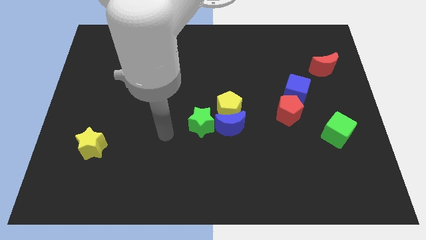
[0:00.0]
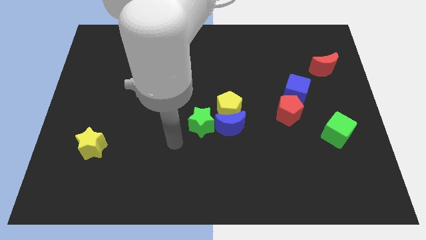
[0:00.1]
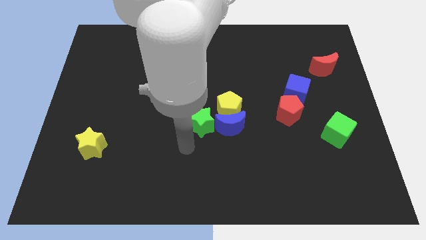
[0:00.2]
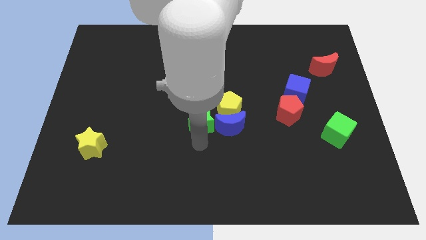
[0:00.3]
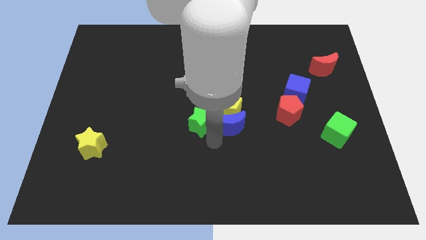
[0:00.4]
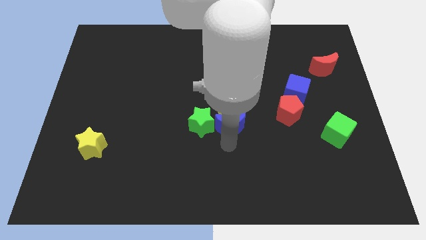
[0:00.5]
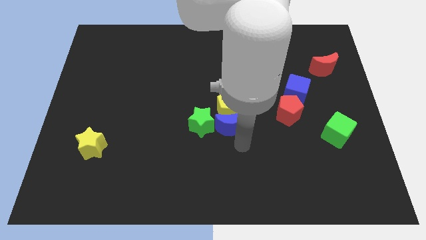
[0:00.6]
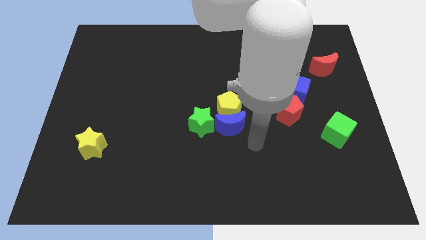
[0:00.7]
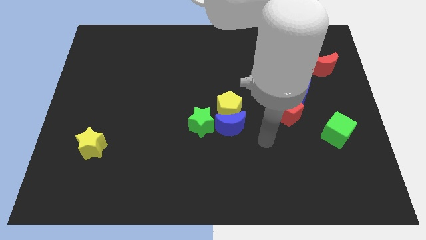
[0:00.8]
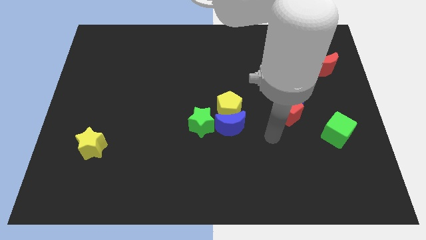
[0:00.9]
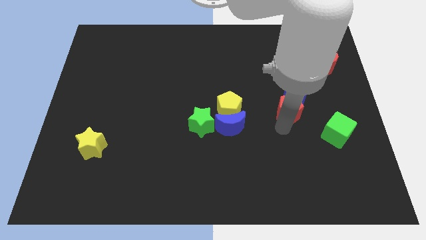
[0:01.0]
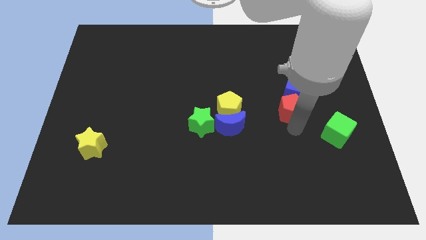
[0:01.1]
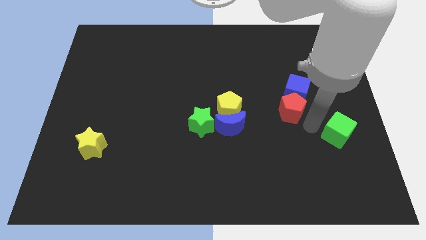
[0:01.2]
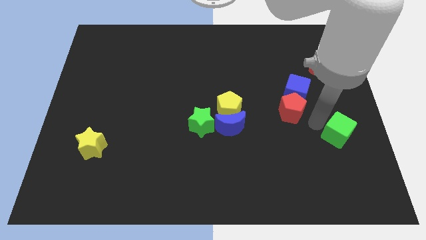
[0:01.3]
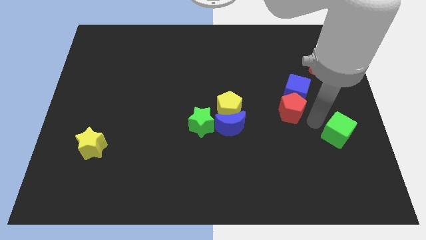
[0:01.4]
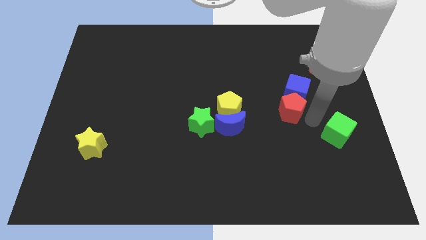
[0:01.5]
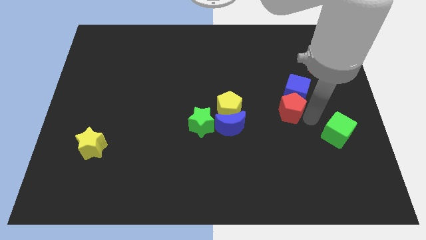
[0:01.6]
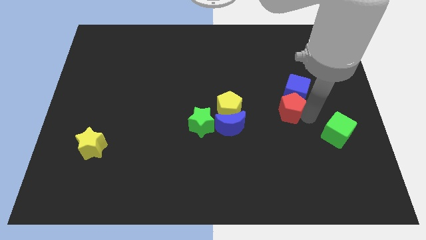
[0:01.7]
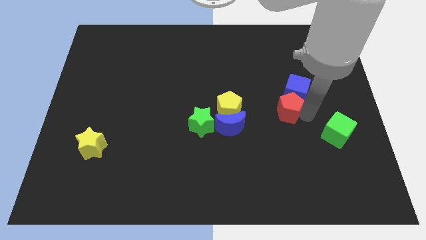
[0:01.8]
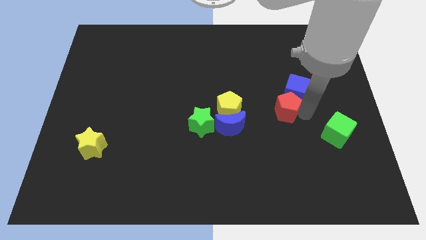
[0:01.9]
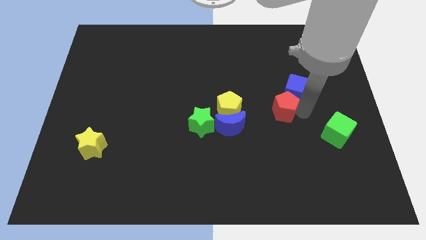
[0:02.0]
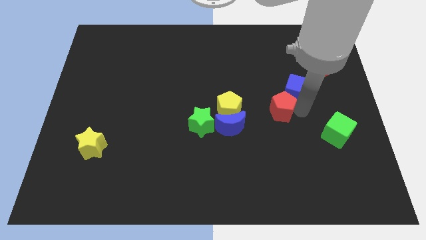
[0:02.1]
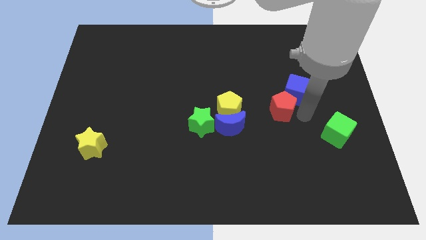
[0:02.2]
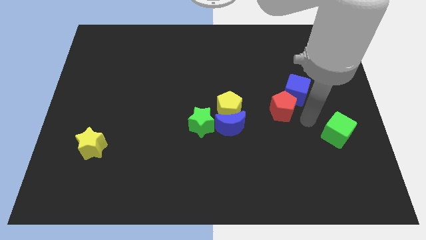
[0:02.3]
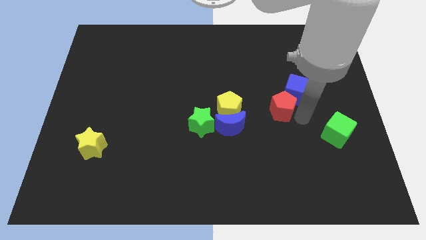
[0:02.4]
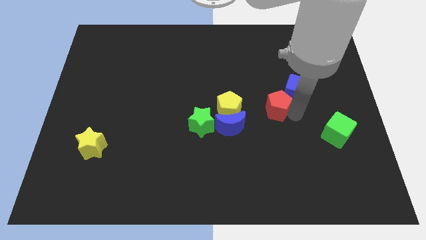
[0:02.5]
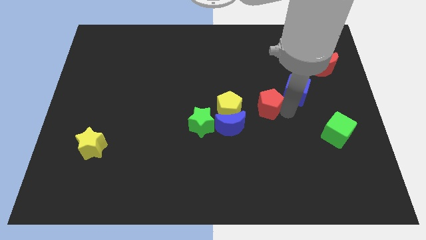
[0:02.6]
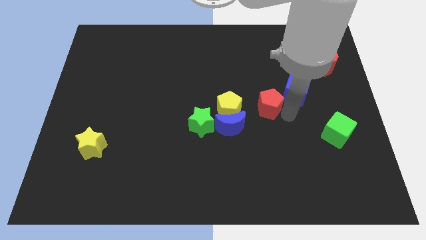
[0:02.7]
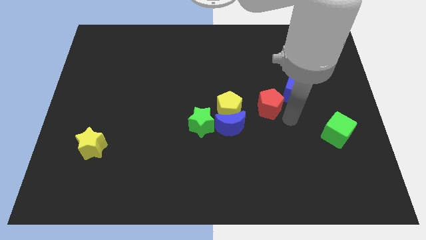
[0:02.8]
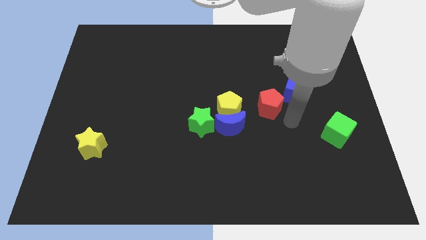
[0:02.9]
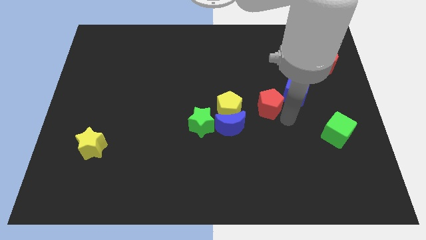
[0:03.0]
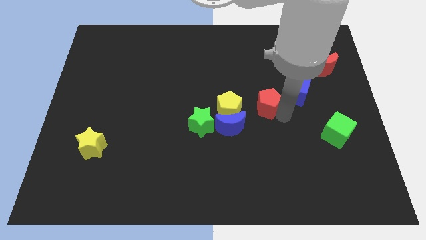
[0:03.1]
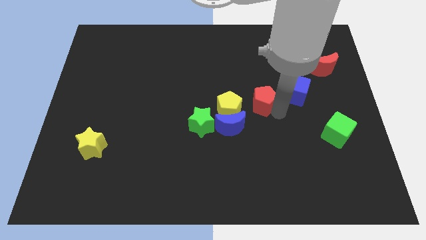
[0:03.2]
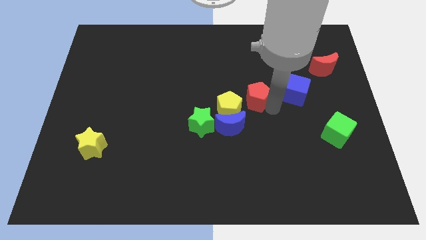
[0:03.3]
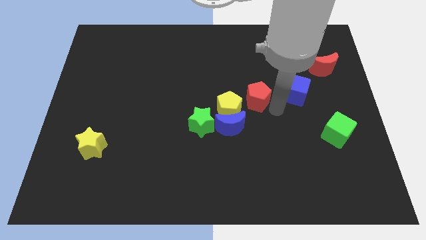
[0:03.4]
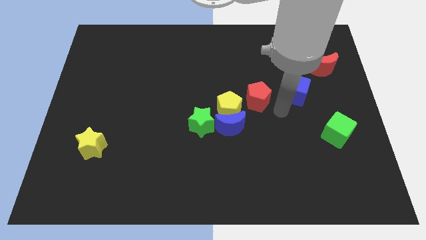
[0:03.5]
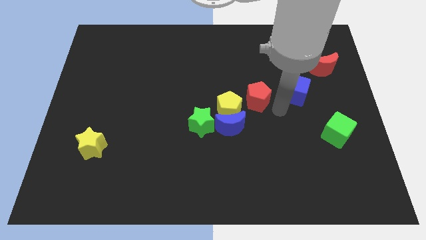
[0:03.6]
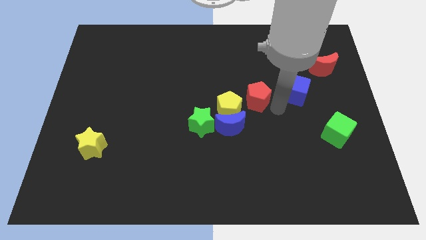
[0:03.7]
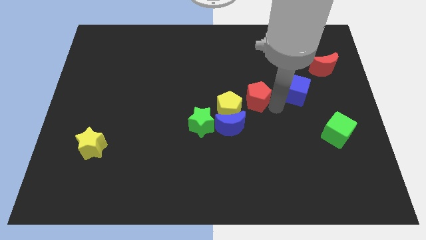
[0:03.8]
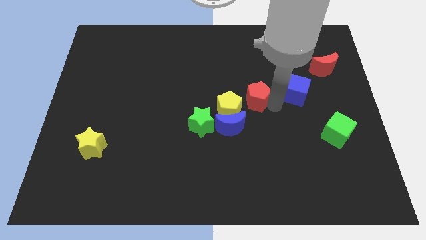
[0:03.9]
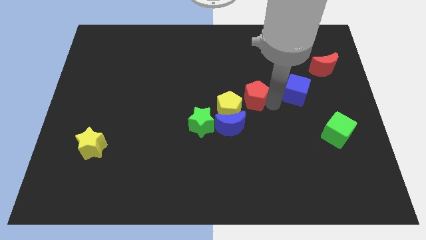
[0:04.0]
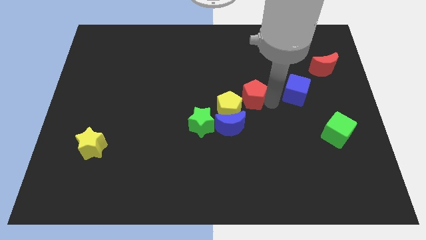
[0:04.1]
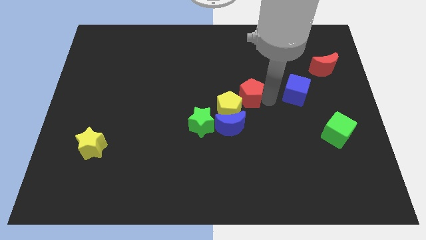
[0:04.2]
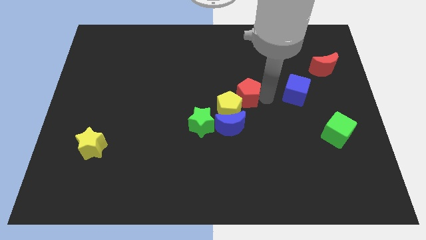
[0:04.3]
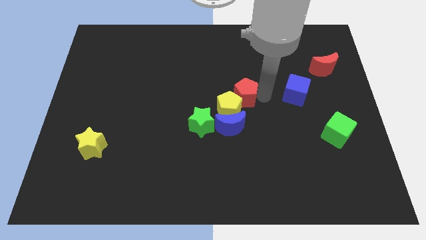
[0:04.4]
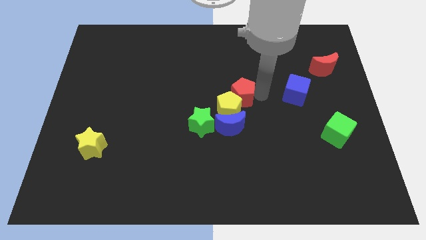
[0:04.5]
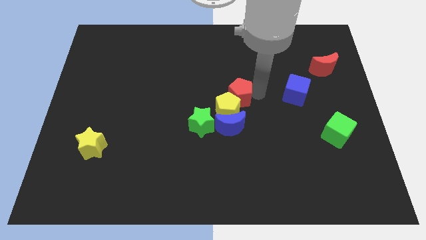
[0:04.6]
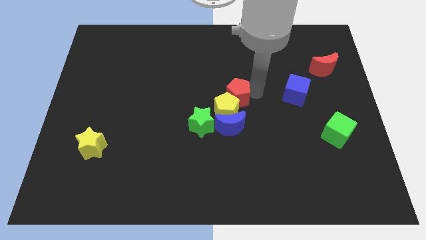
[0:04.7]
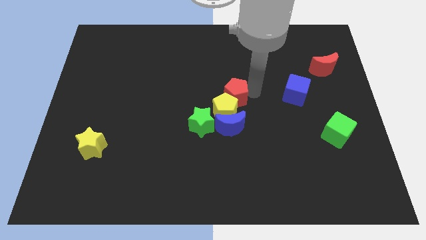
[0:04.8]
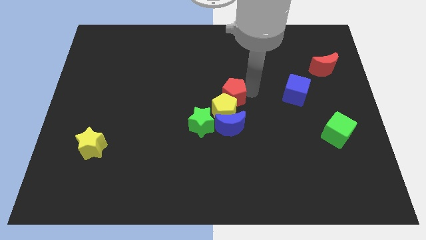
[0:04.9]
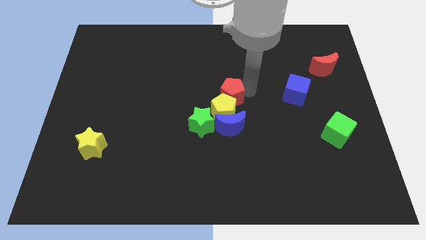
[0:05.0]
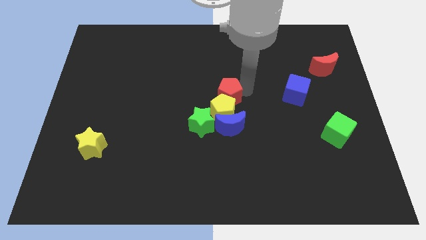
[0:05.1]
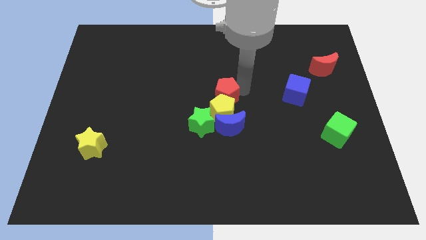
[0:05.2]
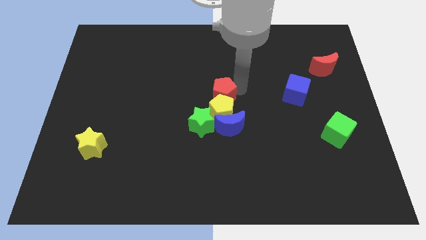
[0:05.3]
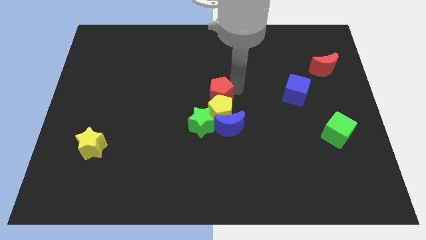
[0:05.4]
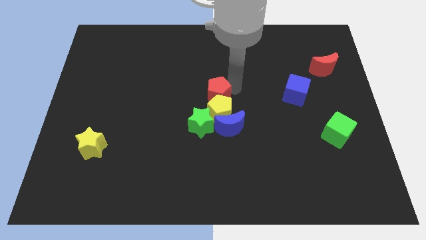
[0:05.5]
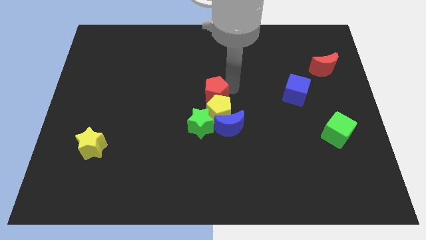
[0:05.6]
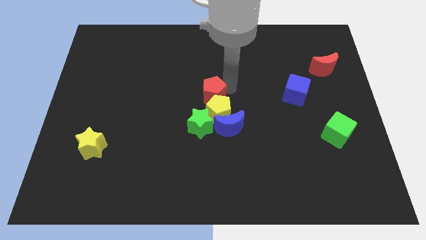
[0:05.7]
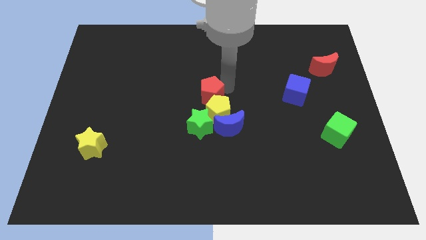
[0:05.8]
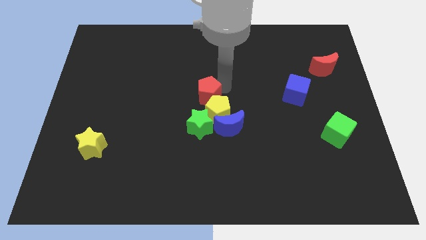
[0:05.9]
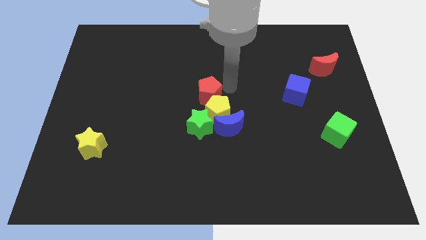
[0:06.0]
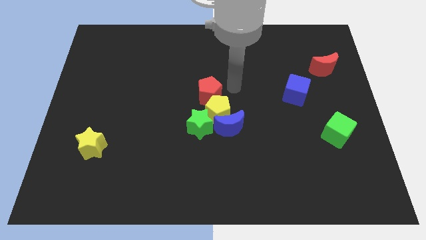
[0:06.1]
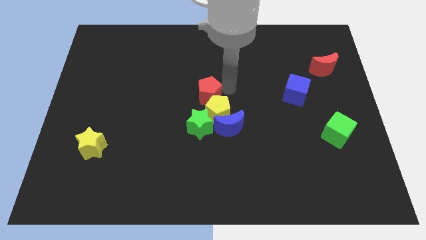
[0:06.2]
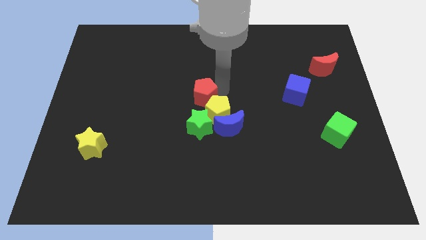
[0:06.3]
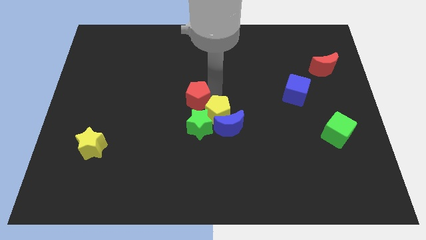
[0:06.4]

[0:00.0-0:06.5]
slide the red pentagon left

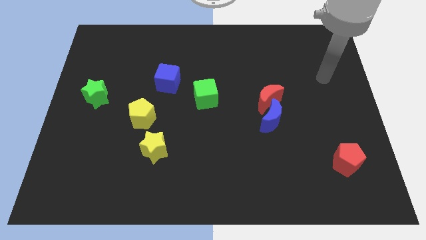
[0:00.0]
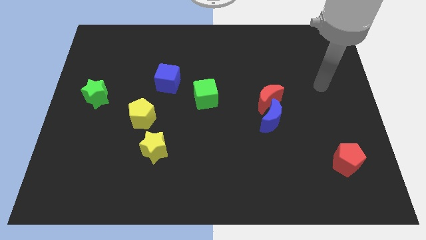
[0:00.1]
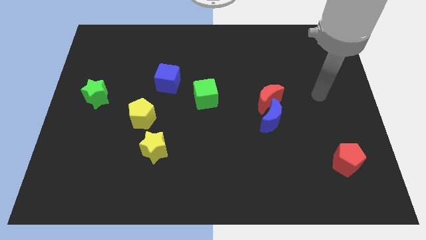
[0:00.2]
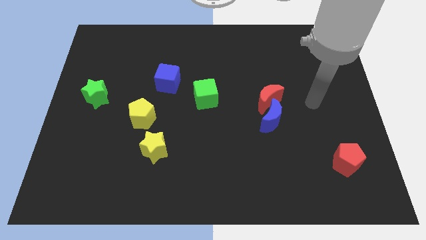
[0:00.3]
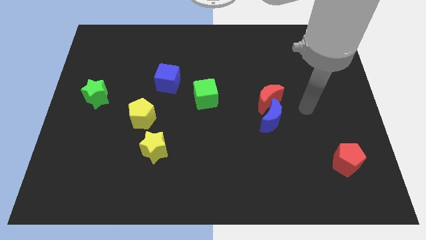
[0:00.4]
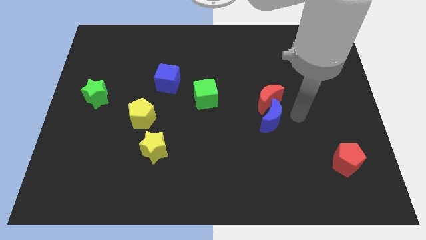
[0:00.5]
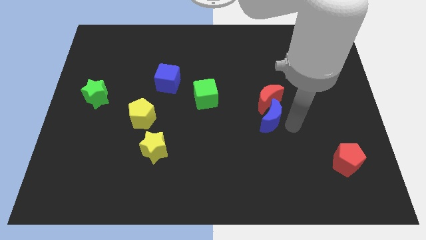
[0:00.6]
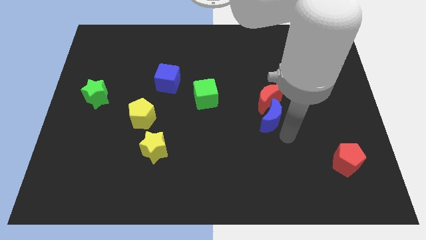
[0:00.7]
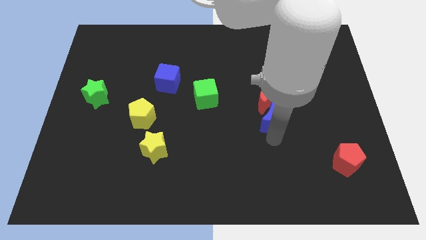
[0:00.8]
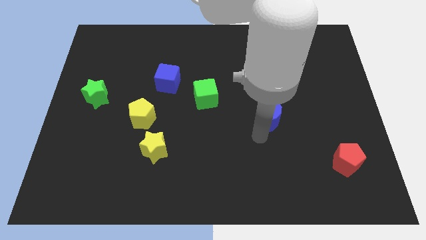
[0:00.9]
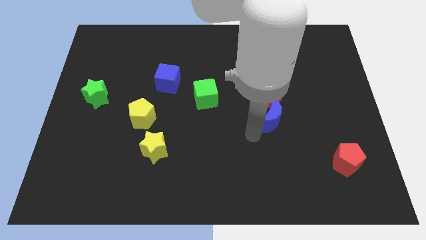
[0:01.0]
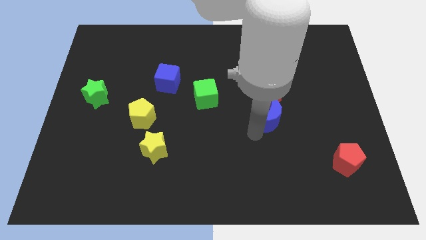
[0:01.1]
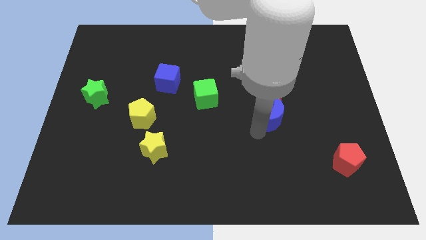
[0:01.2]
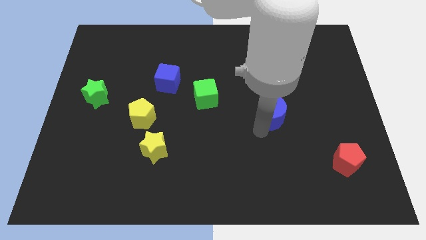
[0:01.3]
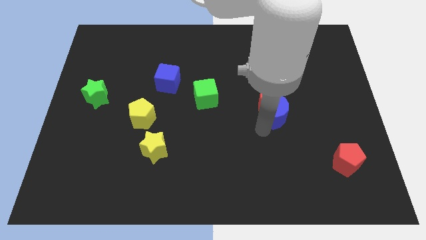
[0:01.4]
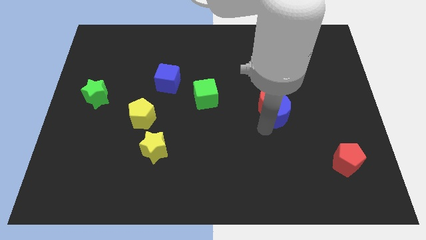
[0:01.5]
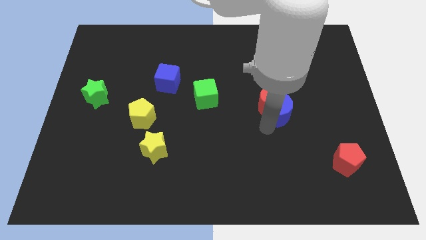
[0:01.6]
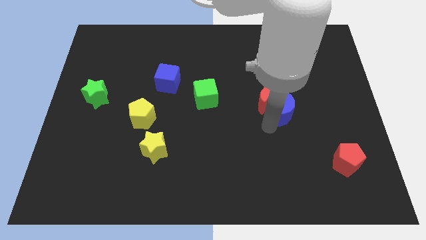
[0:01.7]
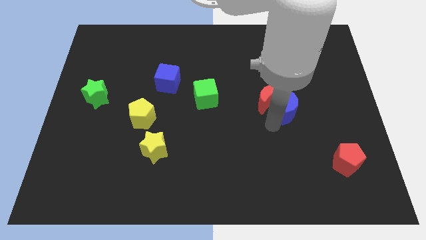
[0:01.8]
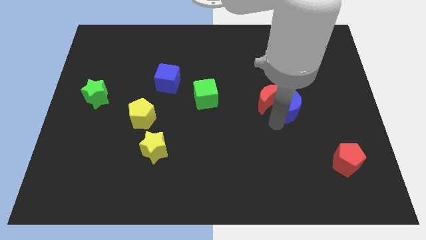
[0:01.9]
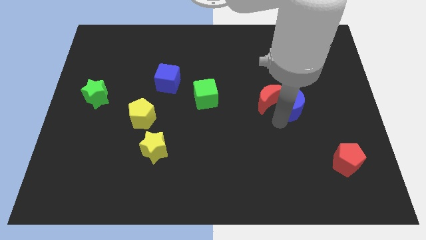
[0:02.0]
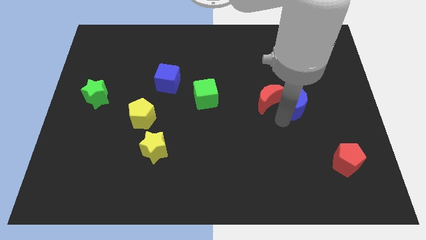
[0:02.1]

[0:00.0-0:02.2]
push the blue moon a little upwards and right
